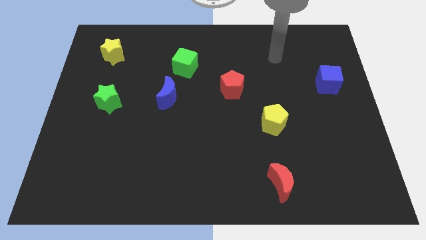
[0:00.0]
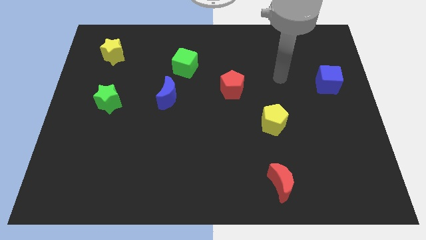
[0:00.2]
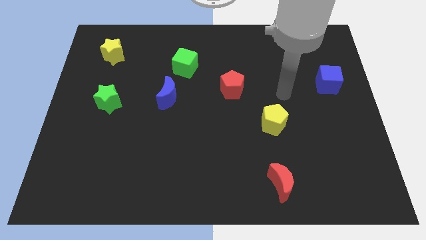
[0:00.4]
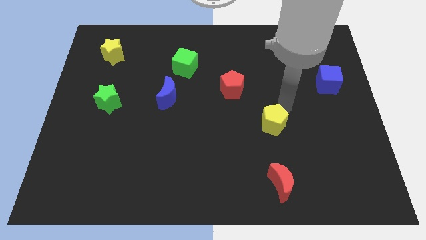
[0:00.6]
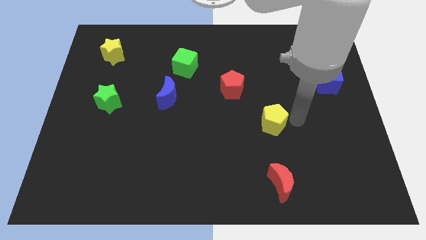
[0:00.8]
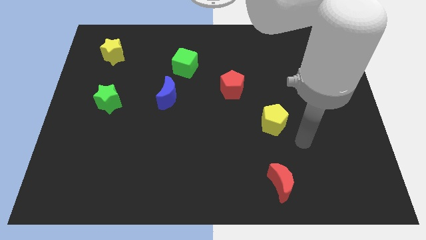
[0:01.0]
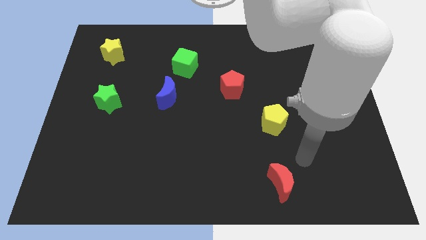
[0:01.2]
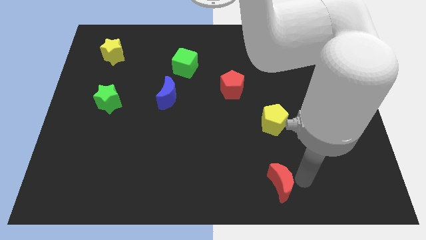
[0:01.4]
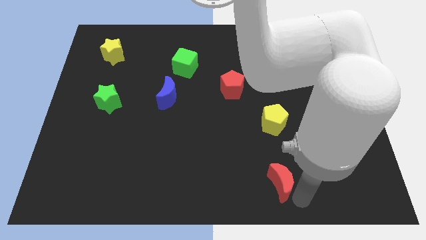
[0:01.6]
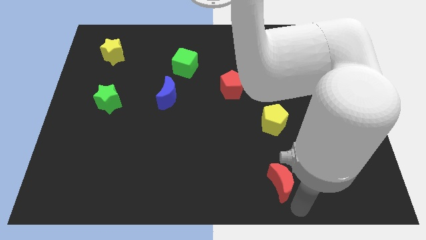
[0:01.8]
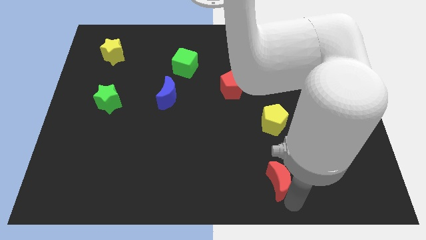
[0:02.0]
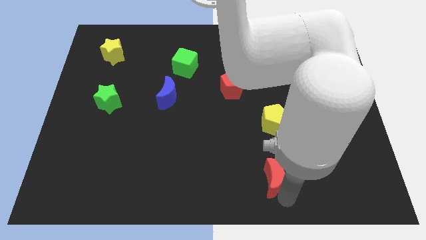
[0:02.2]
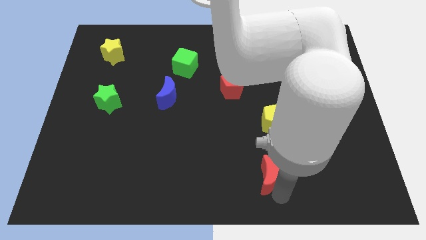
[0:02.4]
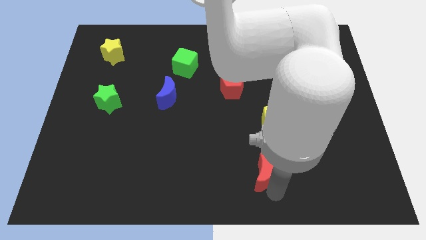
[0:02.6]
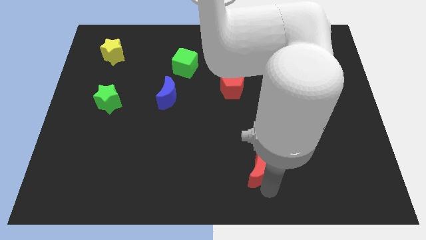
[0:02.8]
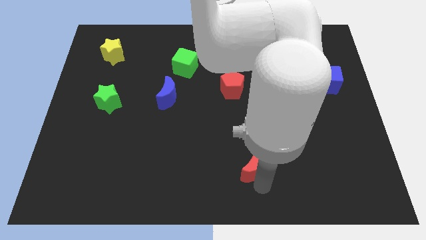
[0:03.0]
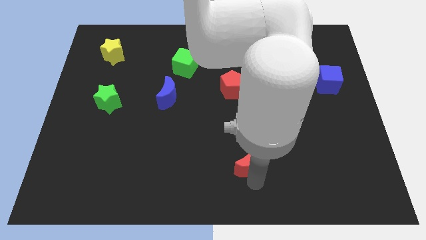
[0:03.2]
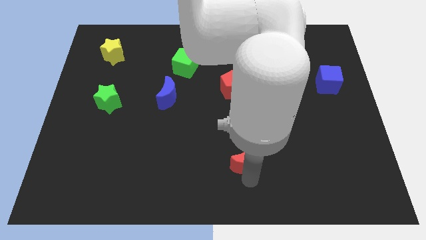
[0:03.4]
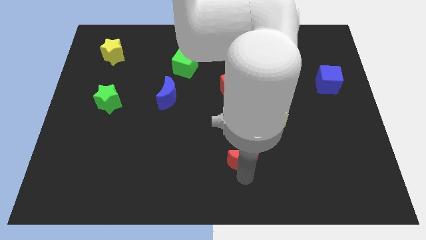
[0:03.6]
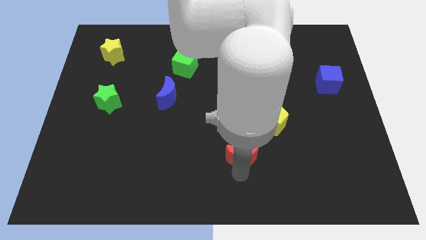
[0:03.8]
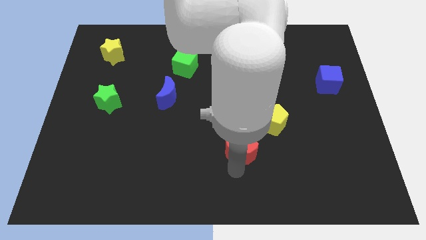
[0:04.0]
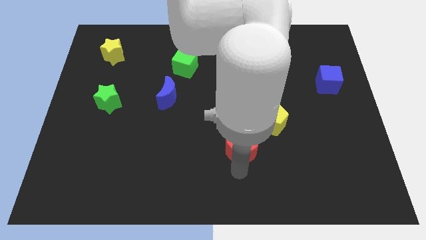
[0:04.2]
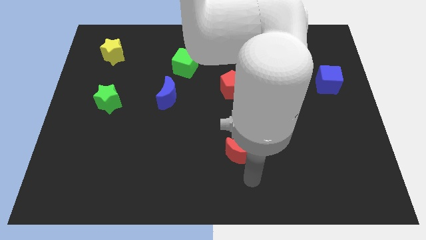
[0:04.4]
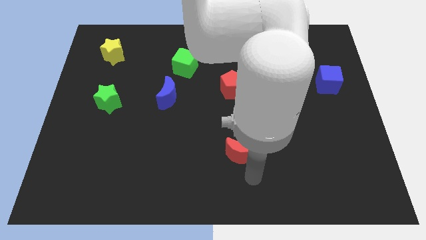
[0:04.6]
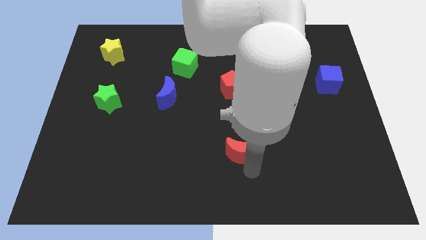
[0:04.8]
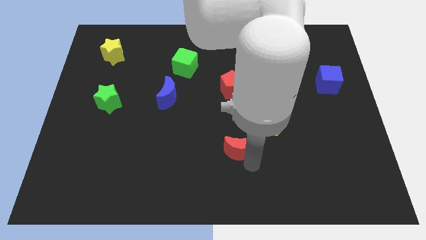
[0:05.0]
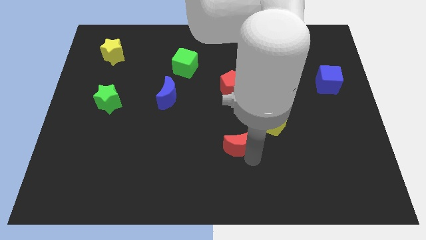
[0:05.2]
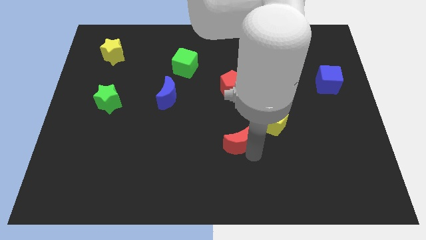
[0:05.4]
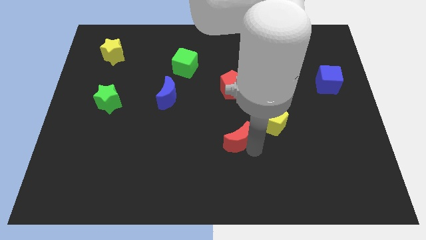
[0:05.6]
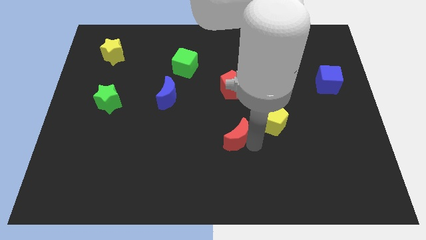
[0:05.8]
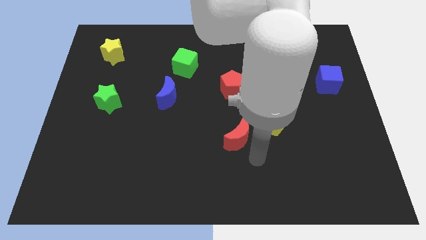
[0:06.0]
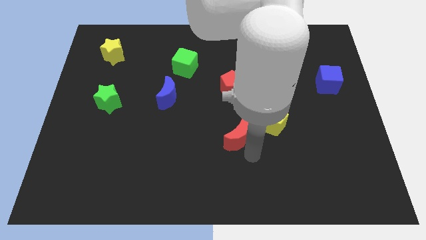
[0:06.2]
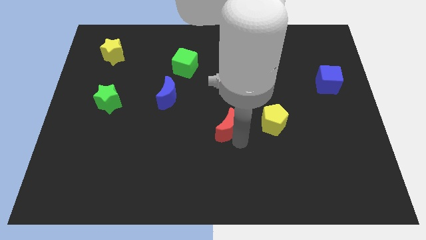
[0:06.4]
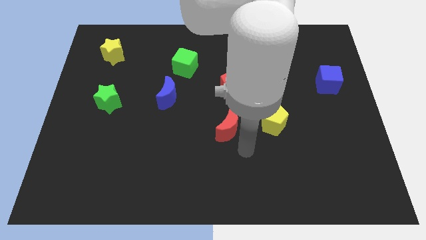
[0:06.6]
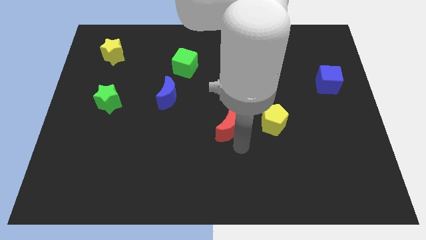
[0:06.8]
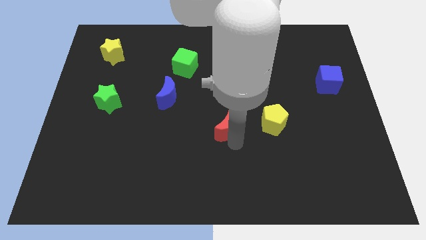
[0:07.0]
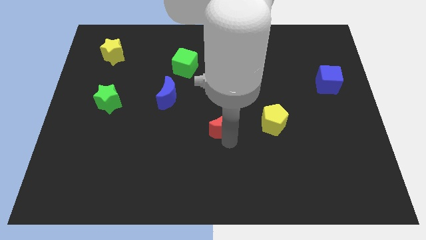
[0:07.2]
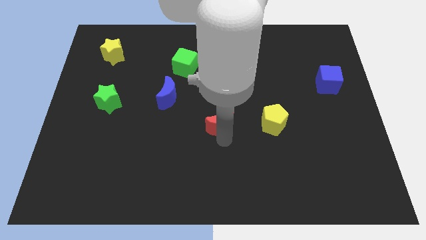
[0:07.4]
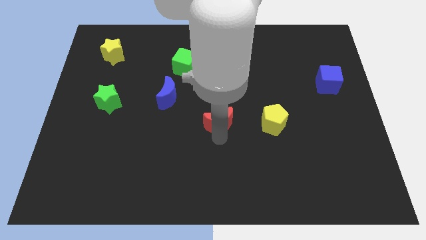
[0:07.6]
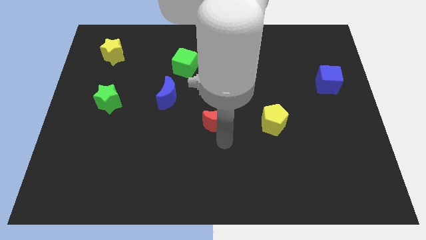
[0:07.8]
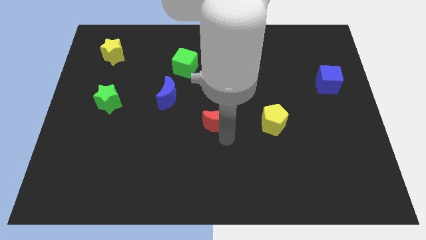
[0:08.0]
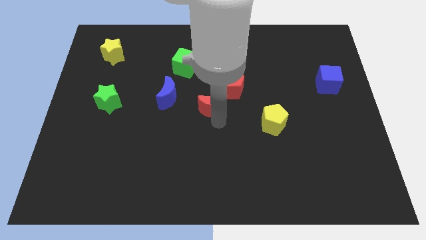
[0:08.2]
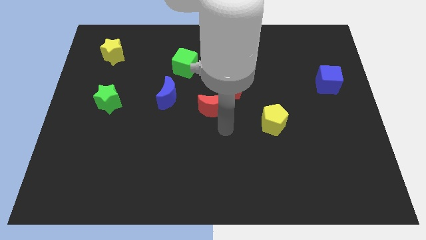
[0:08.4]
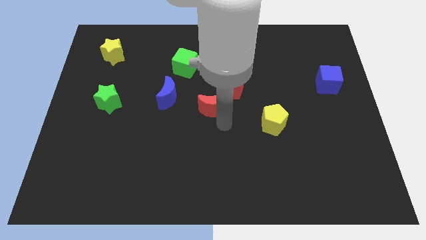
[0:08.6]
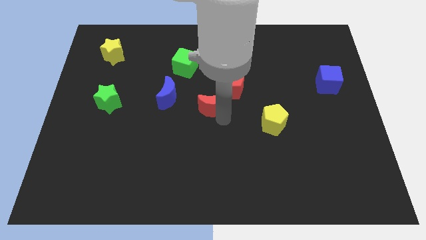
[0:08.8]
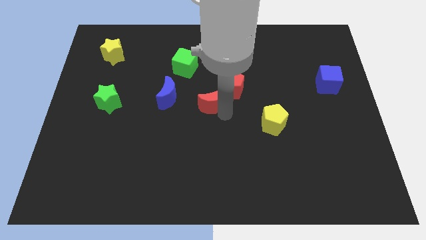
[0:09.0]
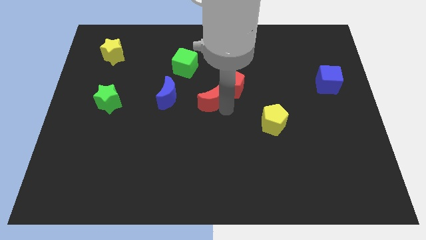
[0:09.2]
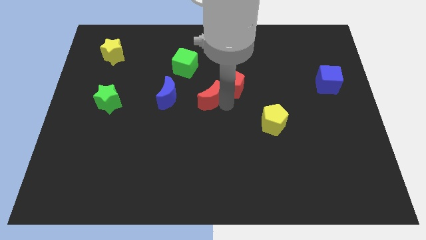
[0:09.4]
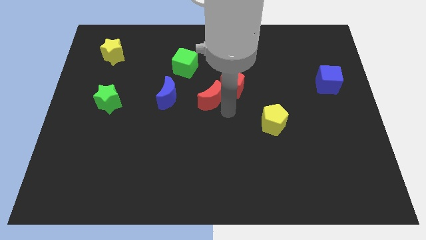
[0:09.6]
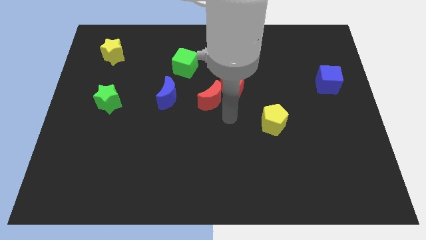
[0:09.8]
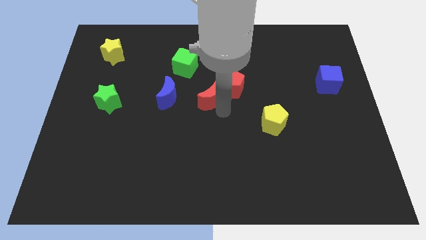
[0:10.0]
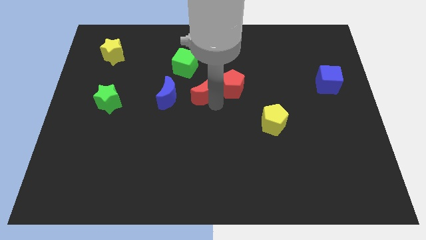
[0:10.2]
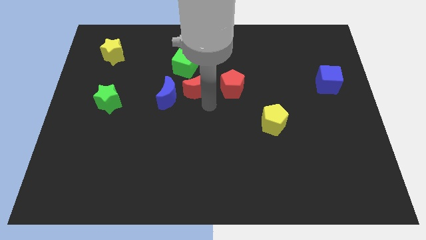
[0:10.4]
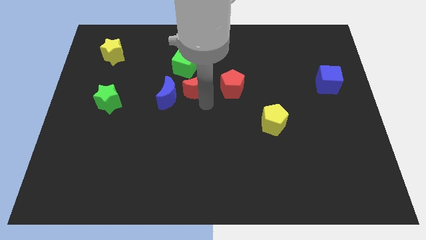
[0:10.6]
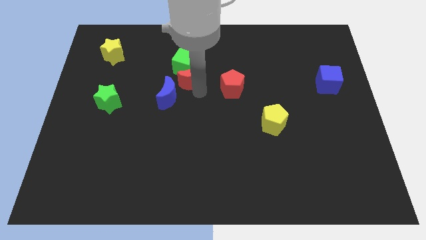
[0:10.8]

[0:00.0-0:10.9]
put the red moon to the green cube

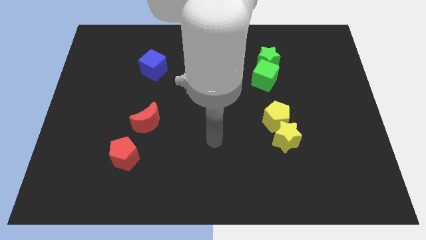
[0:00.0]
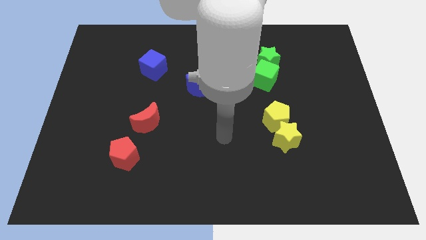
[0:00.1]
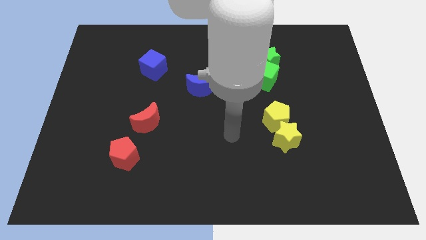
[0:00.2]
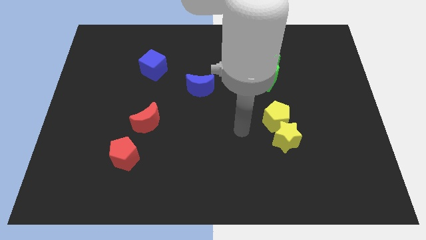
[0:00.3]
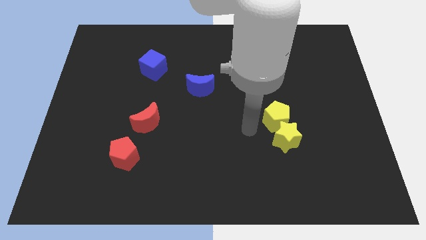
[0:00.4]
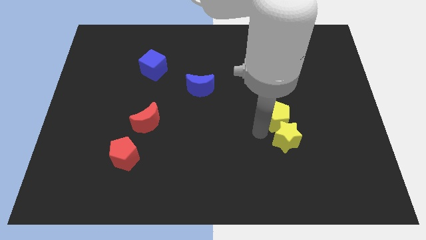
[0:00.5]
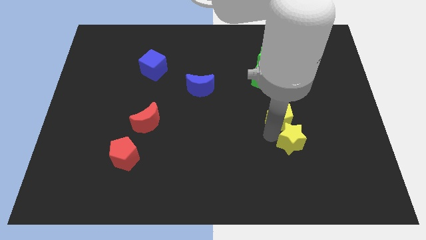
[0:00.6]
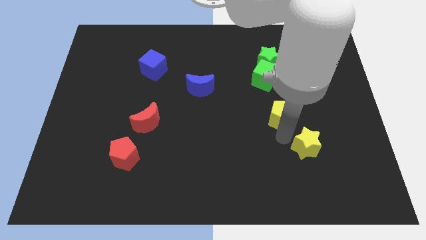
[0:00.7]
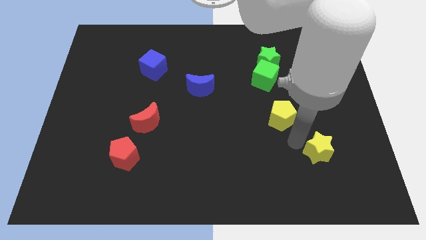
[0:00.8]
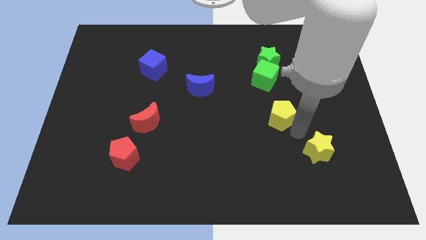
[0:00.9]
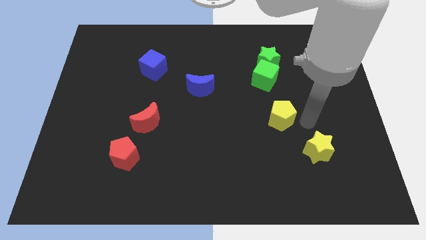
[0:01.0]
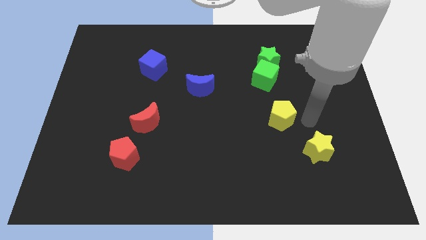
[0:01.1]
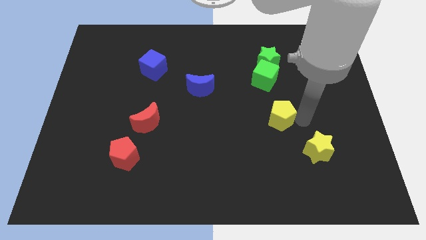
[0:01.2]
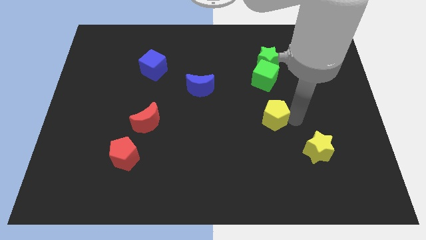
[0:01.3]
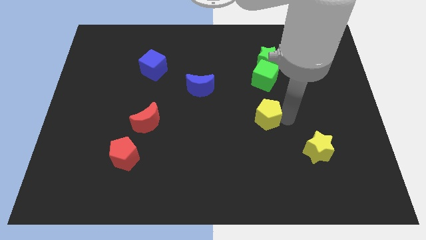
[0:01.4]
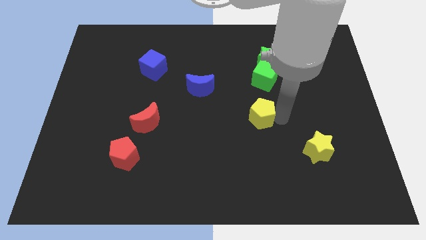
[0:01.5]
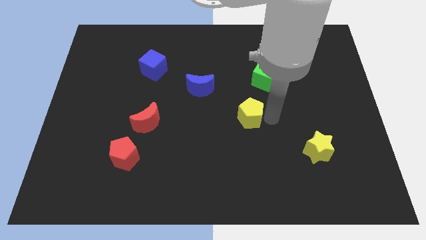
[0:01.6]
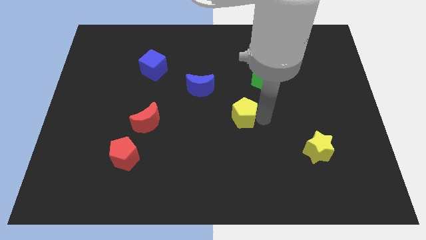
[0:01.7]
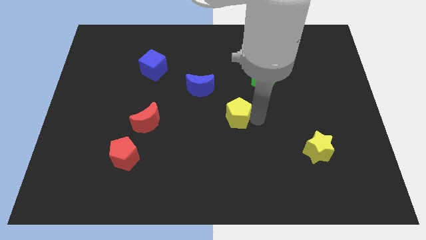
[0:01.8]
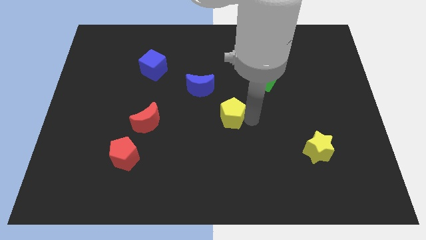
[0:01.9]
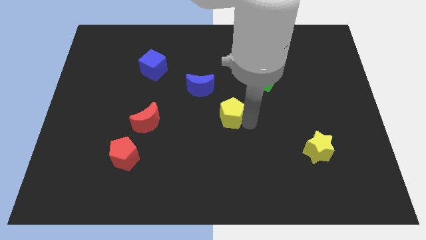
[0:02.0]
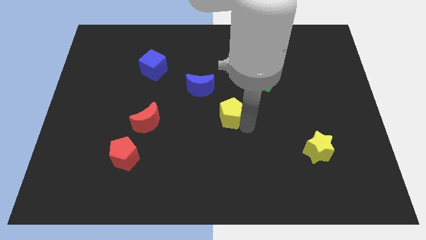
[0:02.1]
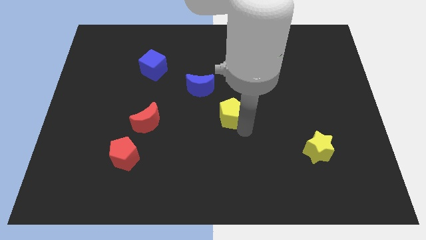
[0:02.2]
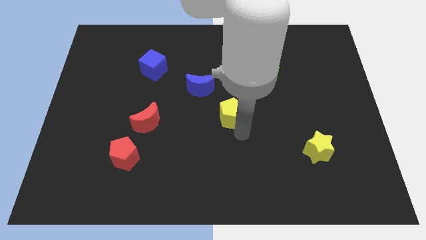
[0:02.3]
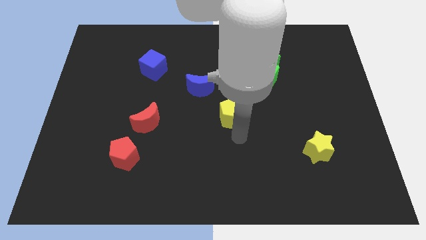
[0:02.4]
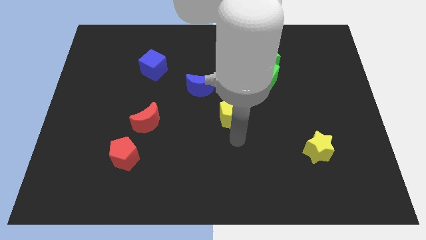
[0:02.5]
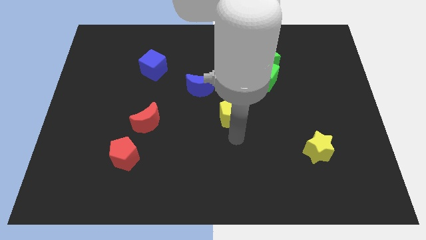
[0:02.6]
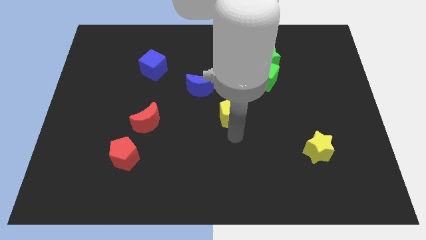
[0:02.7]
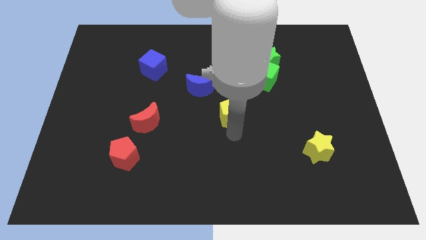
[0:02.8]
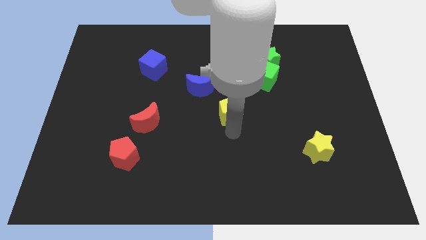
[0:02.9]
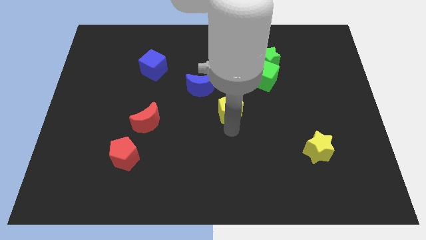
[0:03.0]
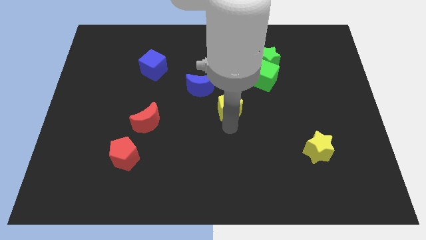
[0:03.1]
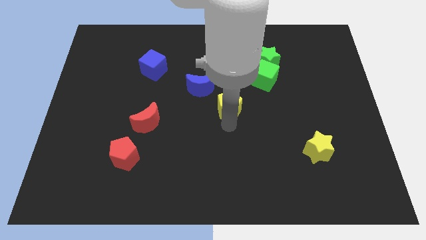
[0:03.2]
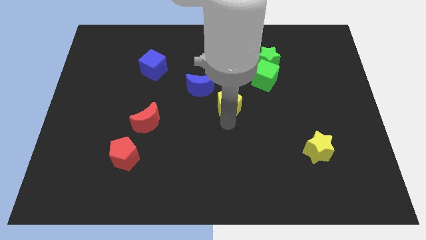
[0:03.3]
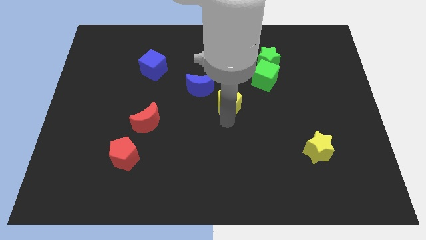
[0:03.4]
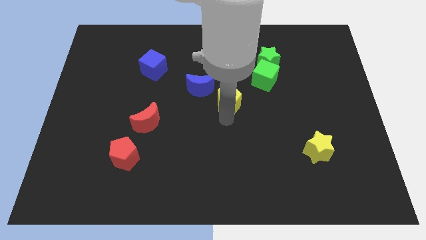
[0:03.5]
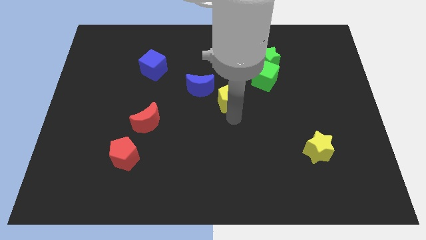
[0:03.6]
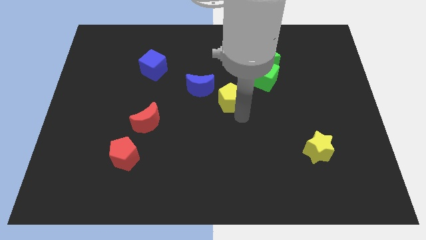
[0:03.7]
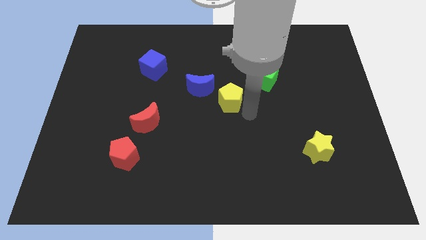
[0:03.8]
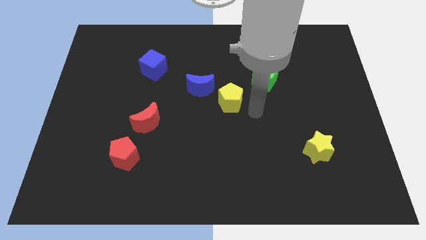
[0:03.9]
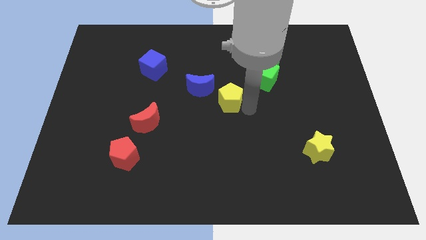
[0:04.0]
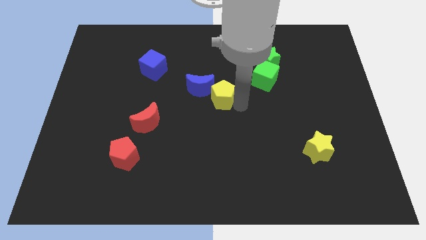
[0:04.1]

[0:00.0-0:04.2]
push the yellow pentagon to the blue moon
